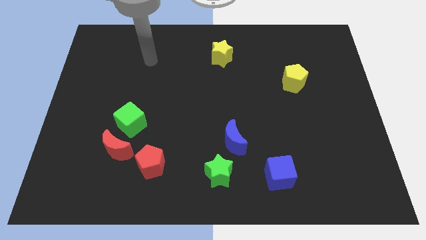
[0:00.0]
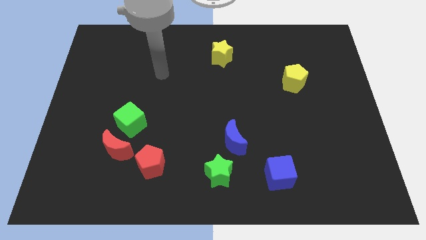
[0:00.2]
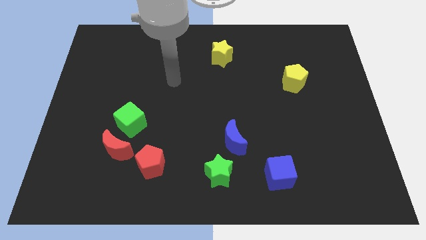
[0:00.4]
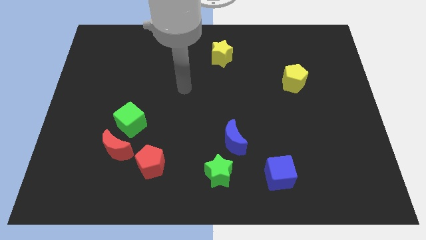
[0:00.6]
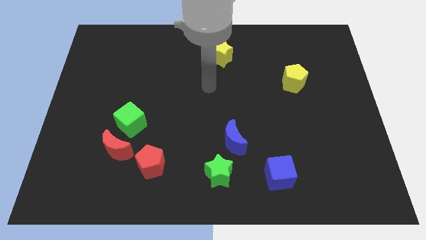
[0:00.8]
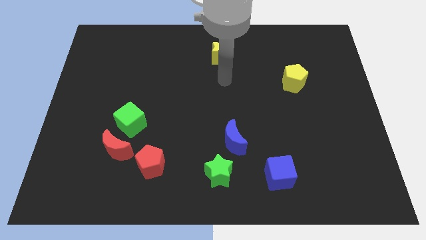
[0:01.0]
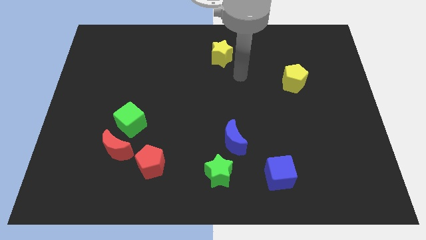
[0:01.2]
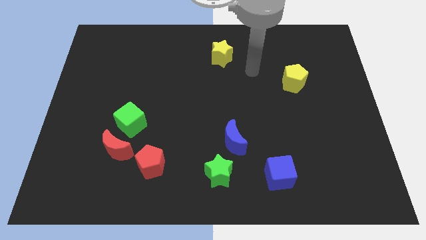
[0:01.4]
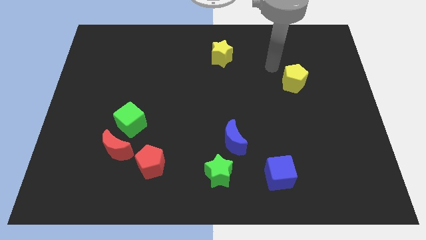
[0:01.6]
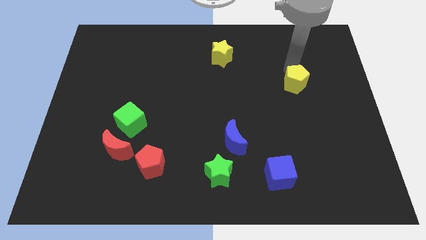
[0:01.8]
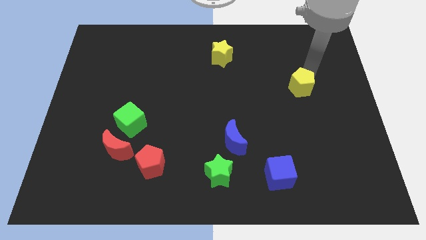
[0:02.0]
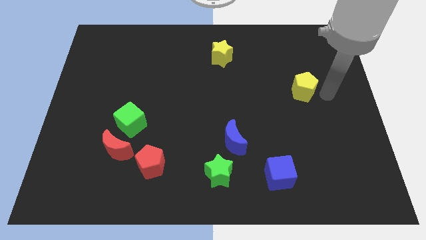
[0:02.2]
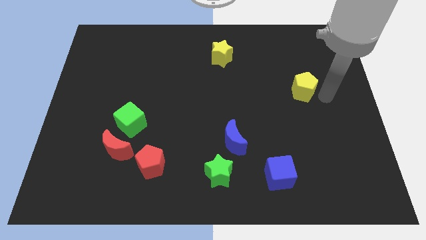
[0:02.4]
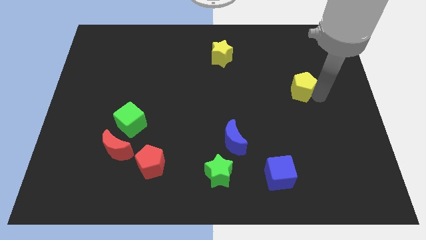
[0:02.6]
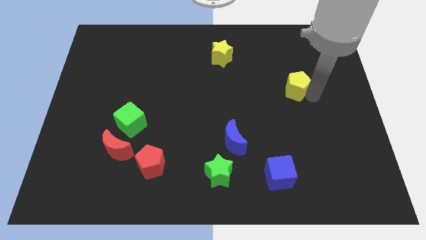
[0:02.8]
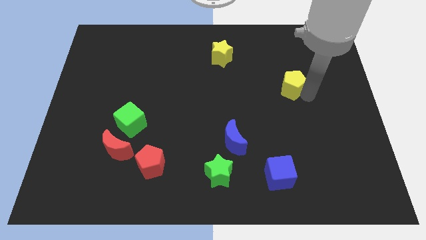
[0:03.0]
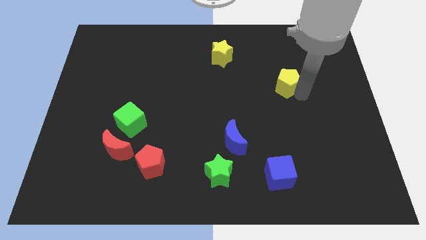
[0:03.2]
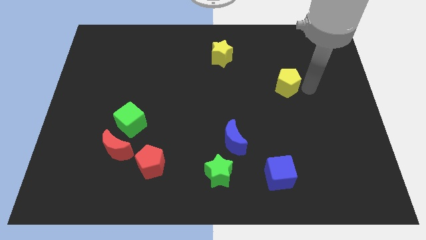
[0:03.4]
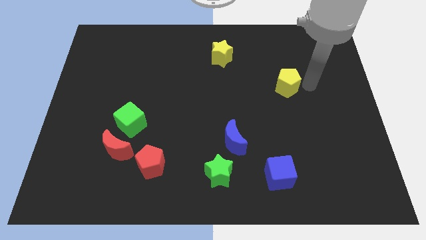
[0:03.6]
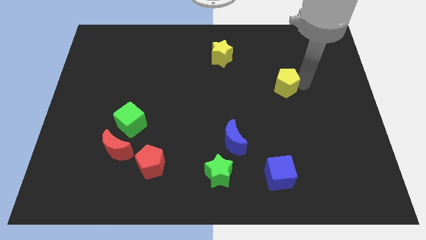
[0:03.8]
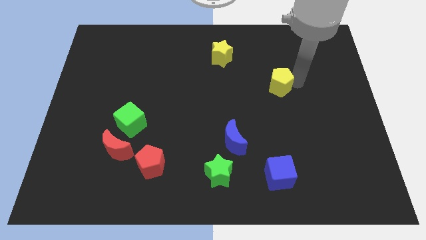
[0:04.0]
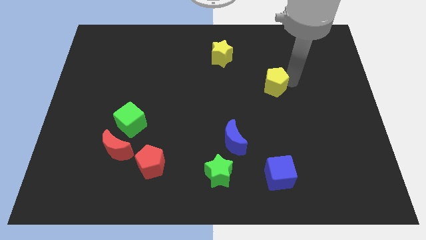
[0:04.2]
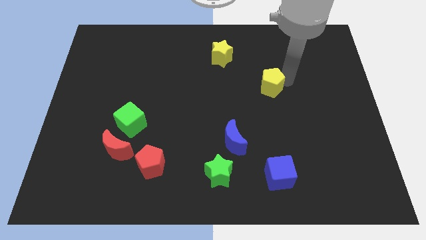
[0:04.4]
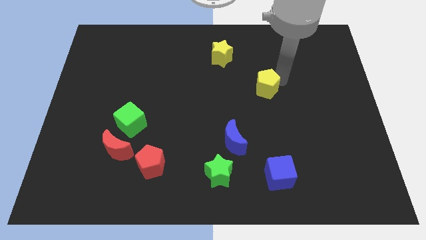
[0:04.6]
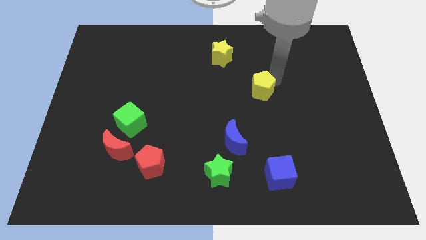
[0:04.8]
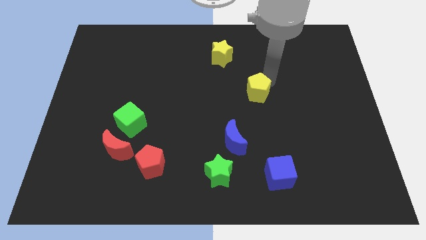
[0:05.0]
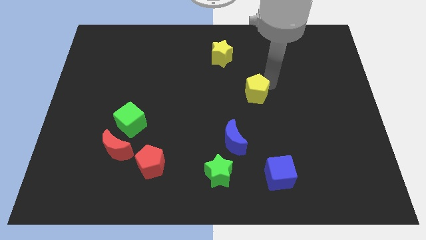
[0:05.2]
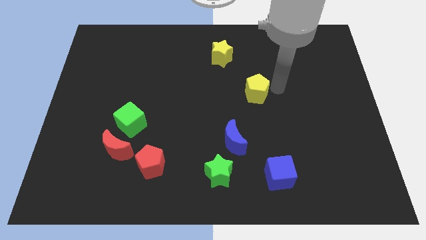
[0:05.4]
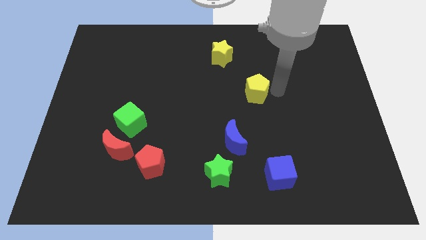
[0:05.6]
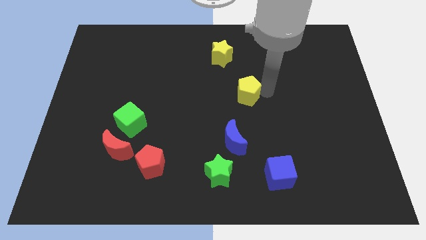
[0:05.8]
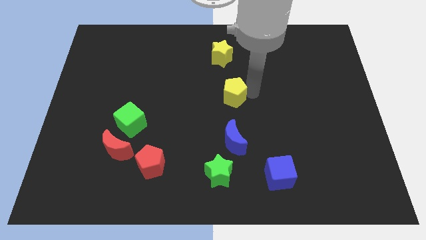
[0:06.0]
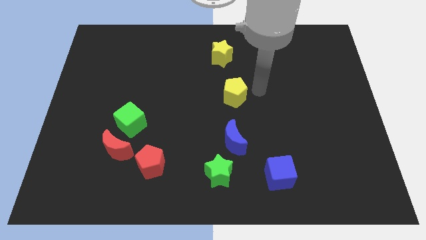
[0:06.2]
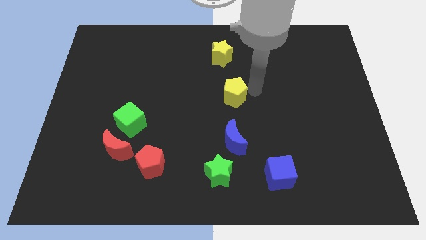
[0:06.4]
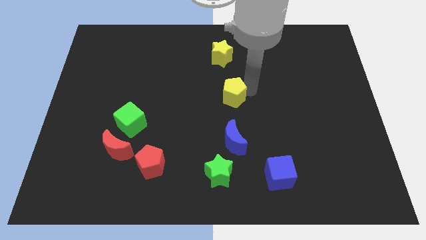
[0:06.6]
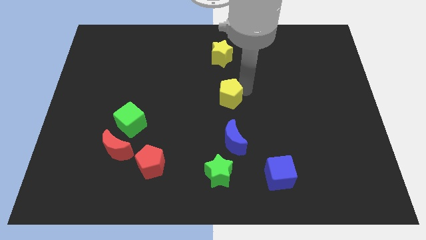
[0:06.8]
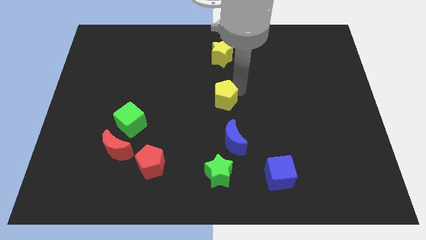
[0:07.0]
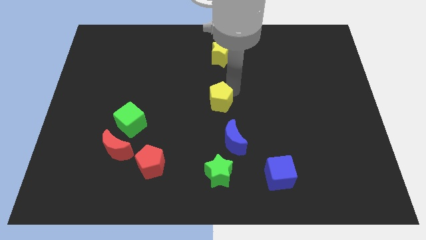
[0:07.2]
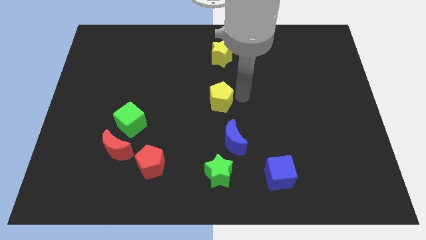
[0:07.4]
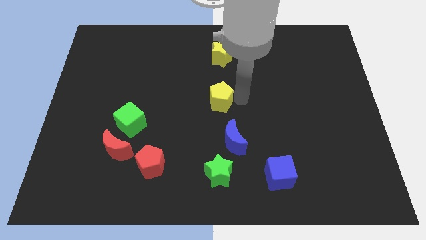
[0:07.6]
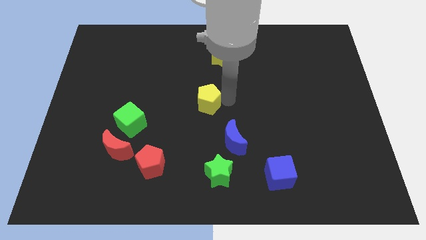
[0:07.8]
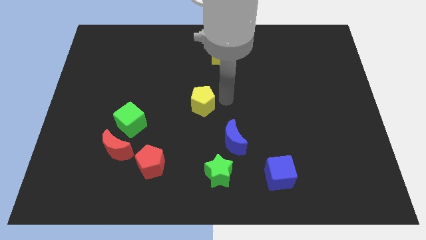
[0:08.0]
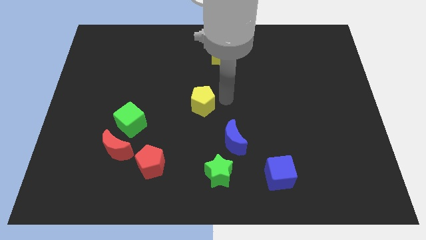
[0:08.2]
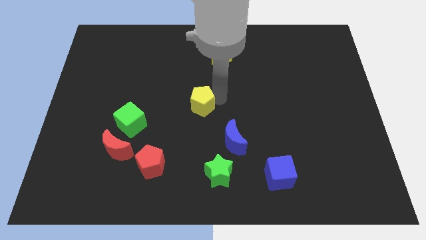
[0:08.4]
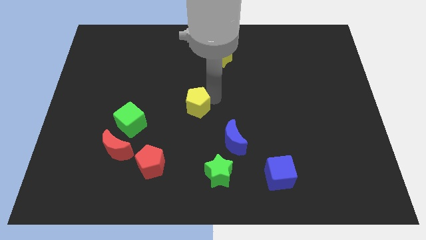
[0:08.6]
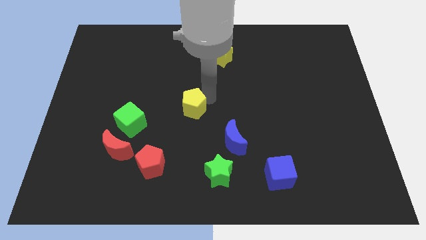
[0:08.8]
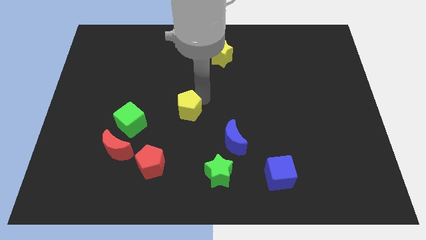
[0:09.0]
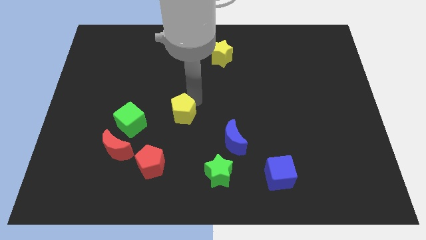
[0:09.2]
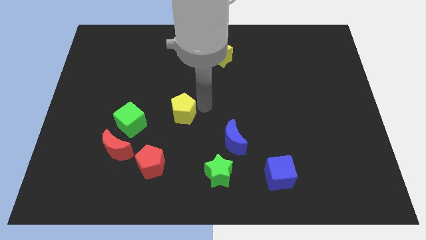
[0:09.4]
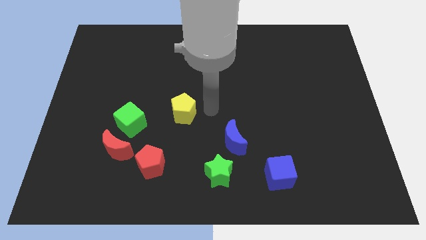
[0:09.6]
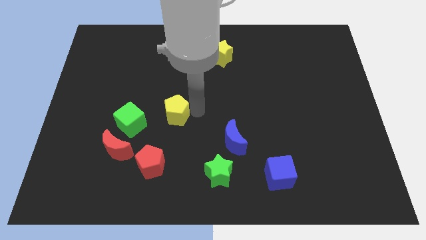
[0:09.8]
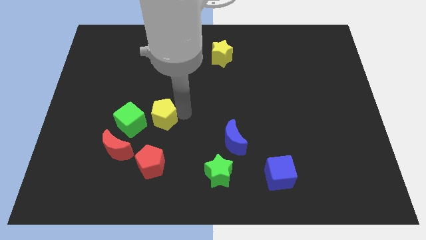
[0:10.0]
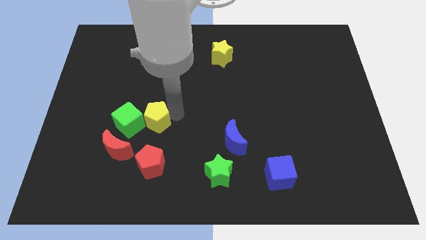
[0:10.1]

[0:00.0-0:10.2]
put the yellow pentagon towards the green cube

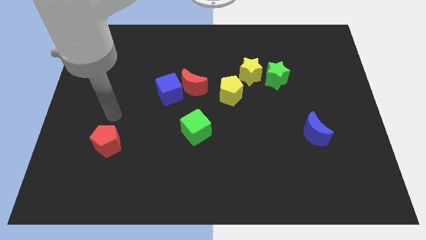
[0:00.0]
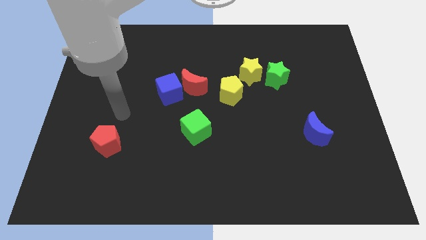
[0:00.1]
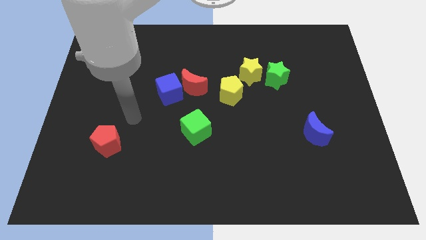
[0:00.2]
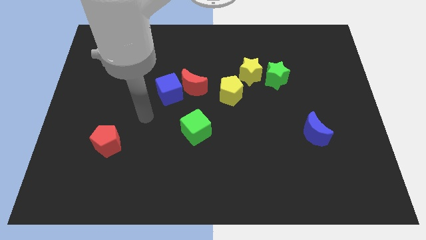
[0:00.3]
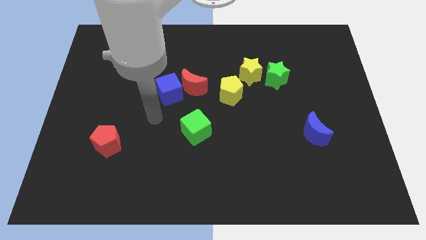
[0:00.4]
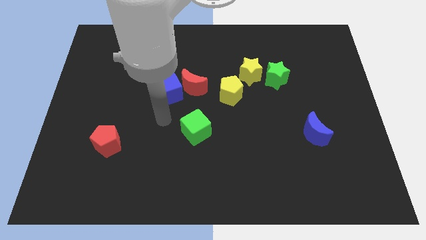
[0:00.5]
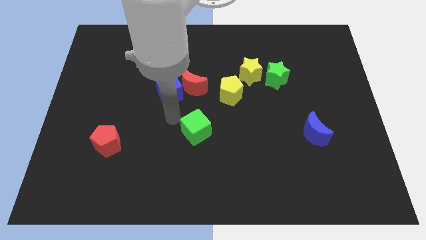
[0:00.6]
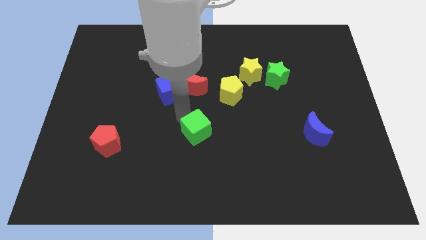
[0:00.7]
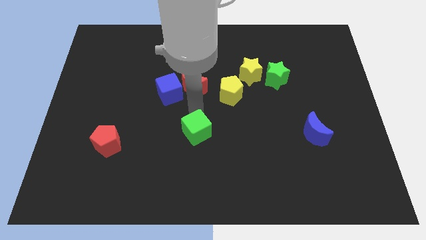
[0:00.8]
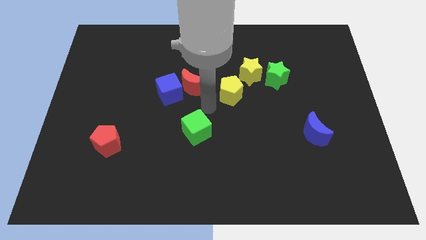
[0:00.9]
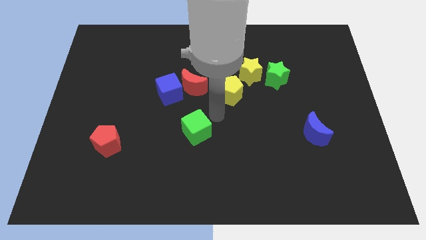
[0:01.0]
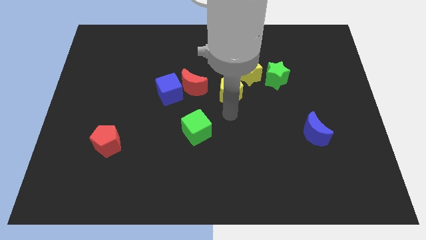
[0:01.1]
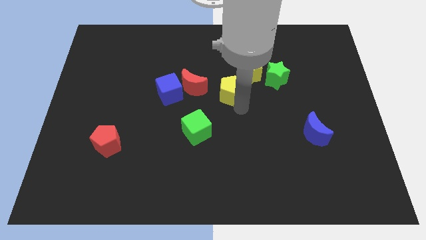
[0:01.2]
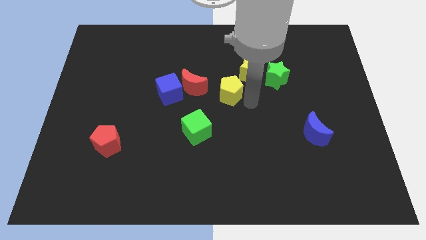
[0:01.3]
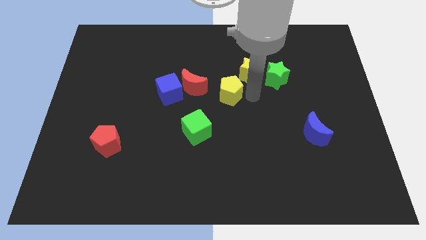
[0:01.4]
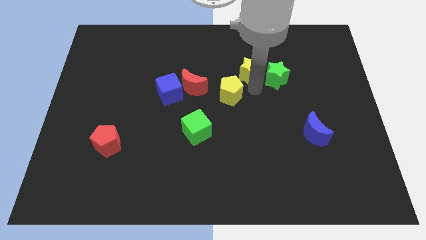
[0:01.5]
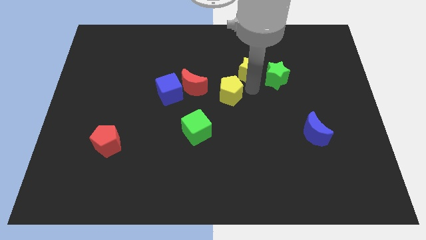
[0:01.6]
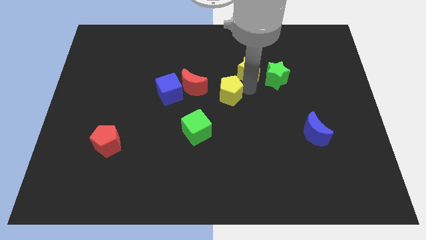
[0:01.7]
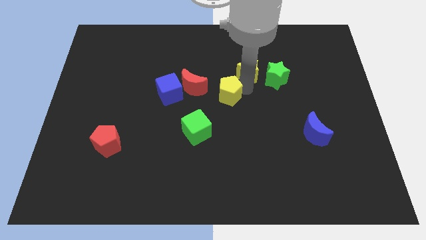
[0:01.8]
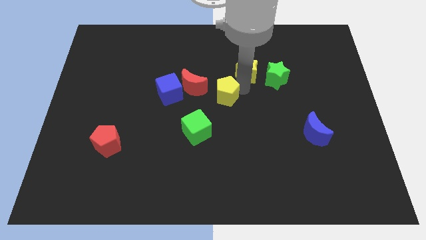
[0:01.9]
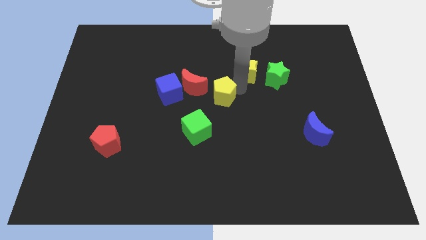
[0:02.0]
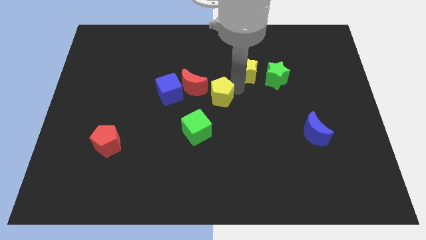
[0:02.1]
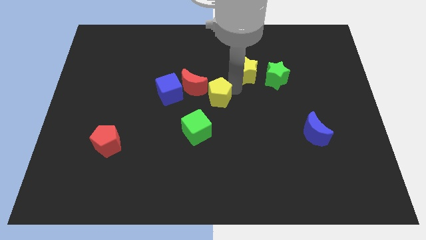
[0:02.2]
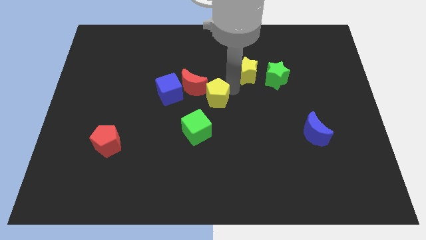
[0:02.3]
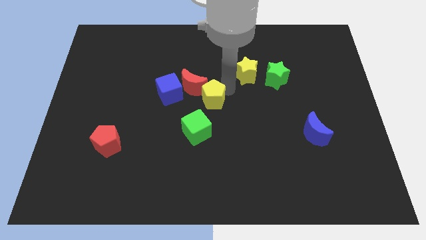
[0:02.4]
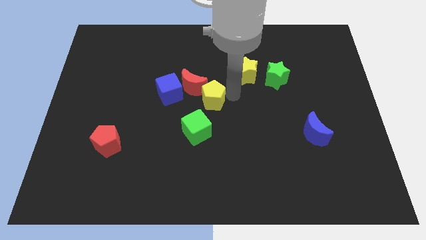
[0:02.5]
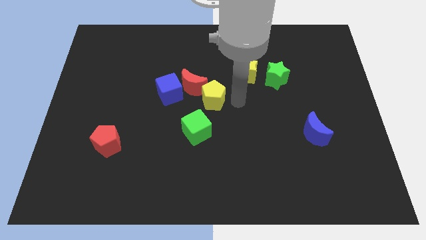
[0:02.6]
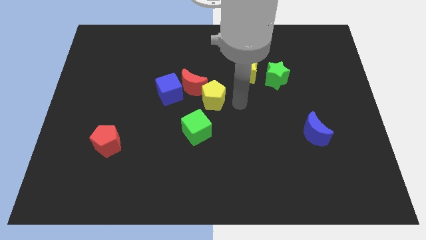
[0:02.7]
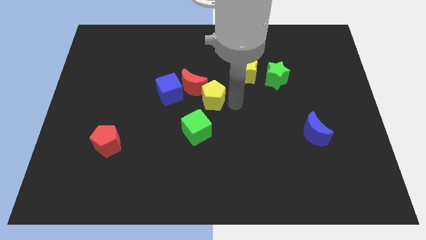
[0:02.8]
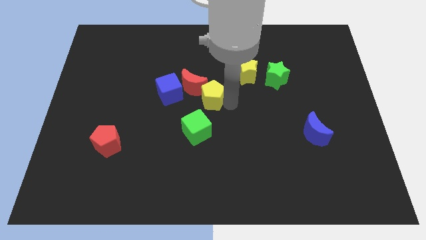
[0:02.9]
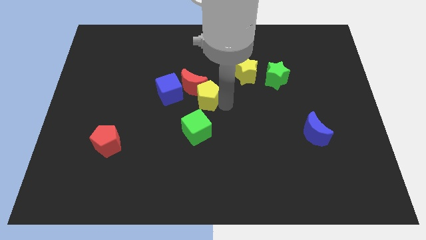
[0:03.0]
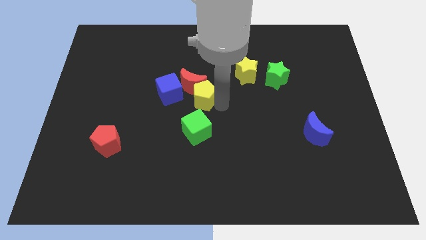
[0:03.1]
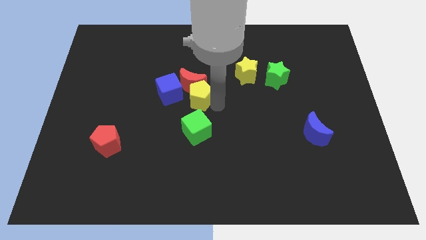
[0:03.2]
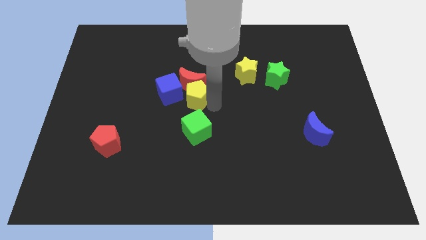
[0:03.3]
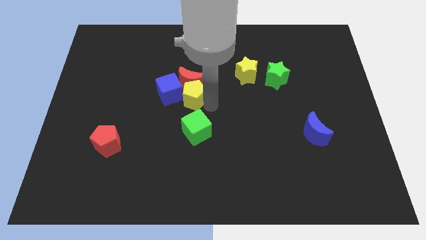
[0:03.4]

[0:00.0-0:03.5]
slide the yellow pentagon next to the blue cube
